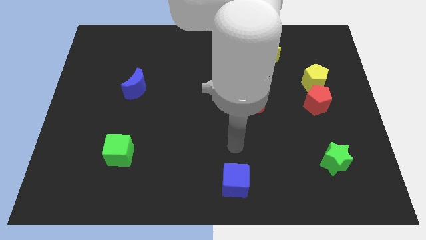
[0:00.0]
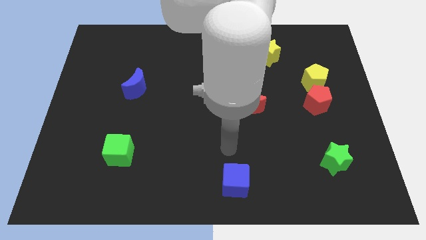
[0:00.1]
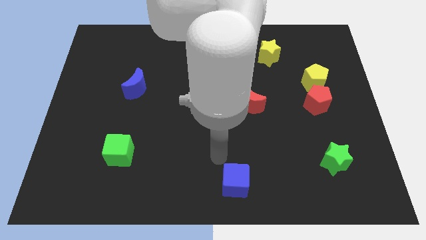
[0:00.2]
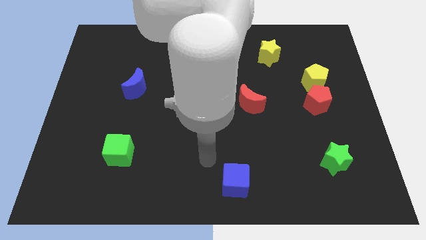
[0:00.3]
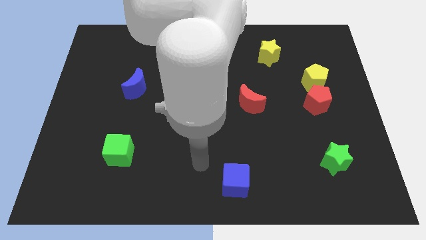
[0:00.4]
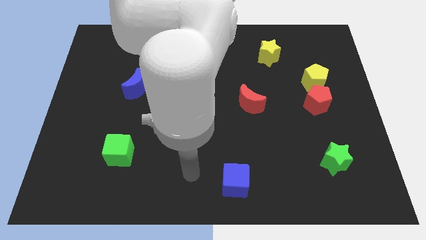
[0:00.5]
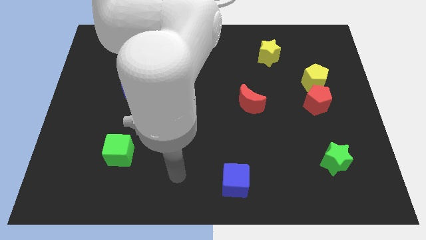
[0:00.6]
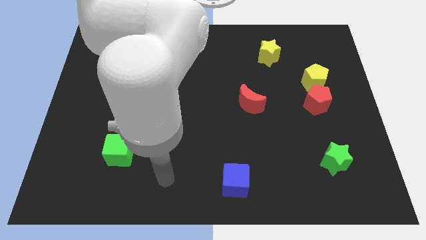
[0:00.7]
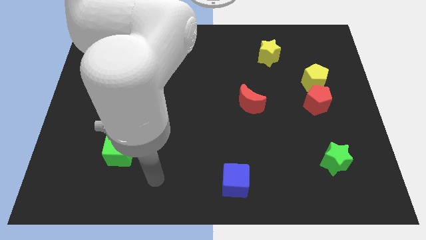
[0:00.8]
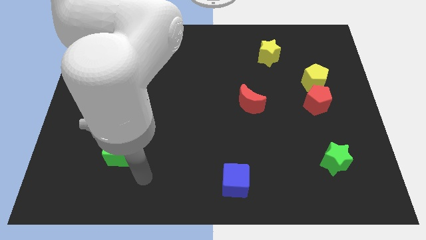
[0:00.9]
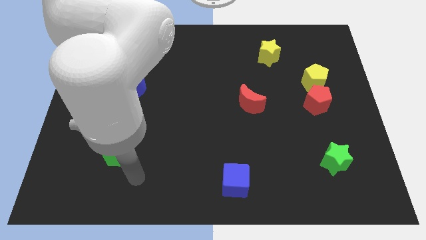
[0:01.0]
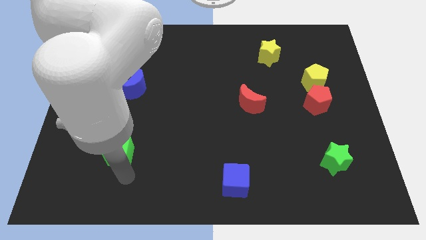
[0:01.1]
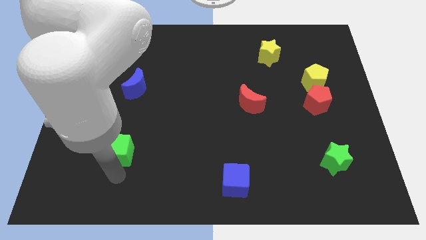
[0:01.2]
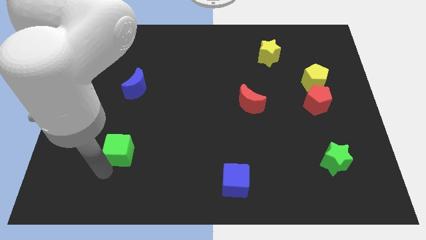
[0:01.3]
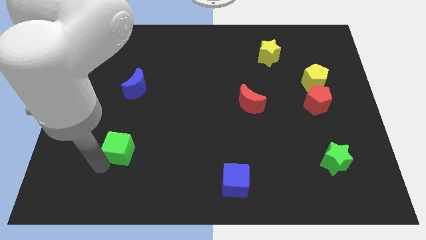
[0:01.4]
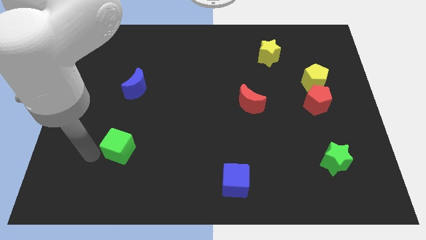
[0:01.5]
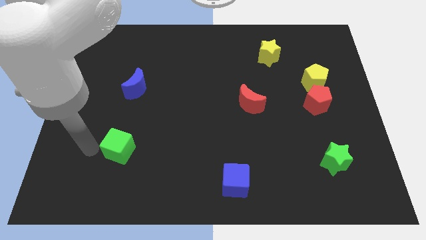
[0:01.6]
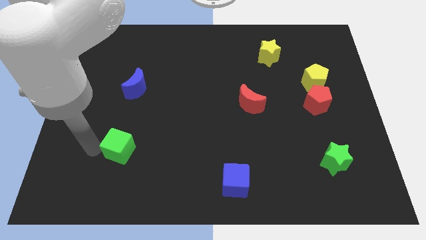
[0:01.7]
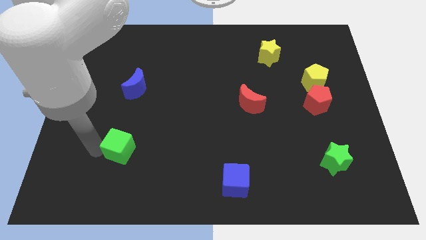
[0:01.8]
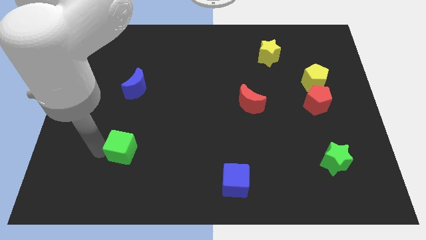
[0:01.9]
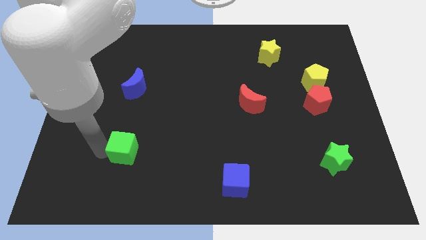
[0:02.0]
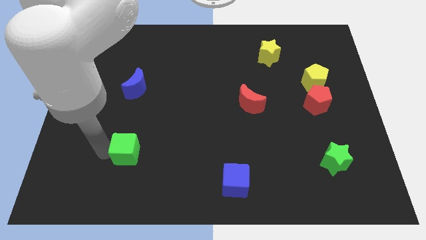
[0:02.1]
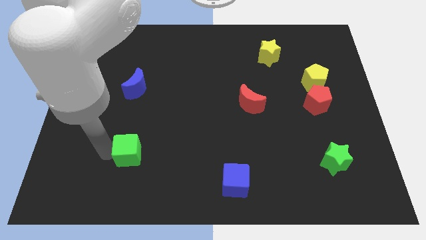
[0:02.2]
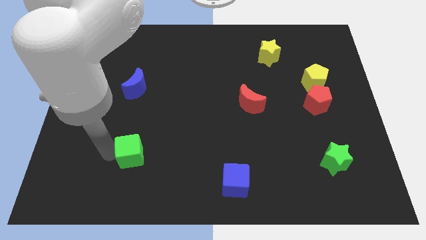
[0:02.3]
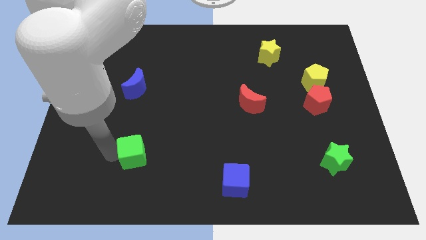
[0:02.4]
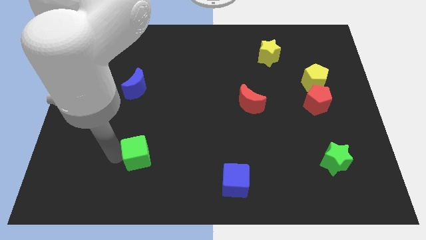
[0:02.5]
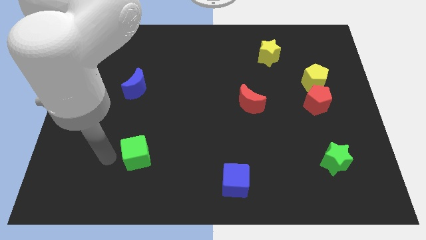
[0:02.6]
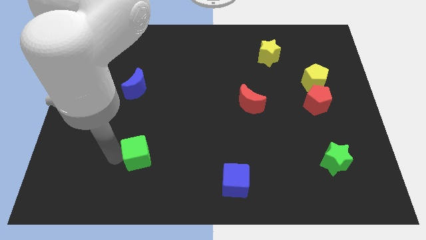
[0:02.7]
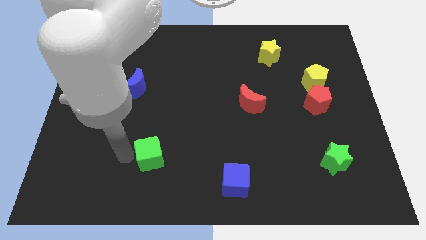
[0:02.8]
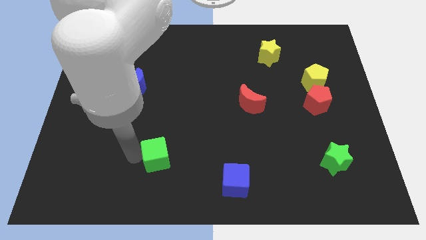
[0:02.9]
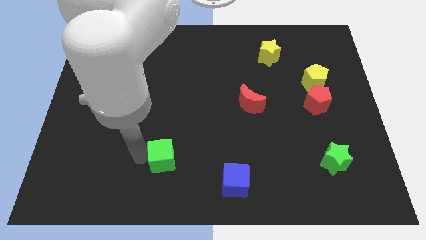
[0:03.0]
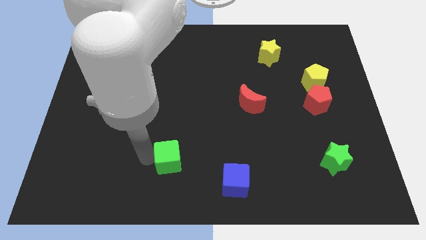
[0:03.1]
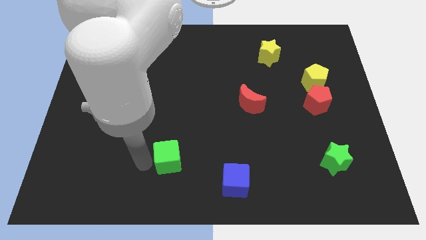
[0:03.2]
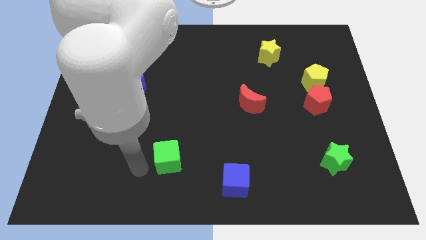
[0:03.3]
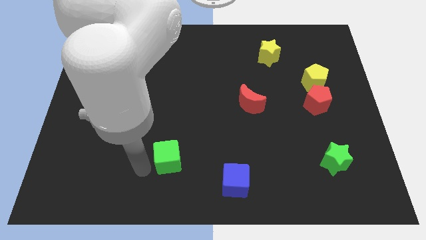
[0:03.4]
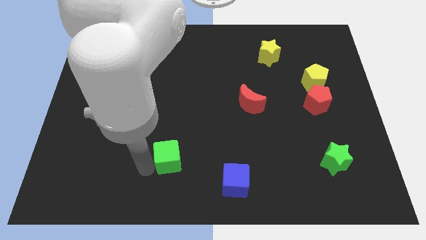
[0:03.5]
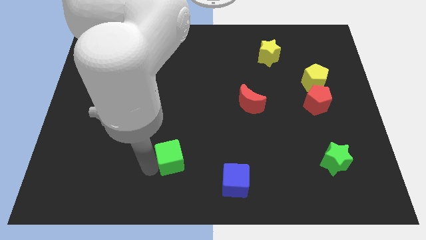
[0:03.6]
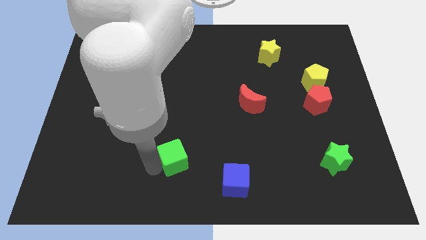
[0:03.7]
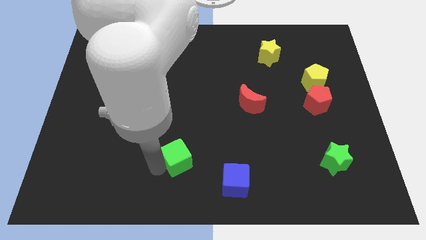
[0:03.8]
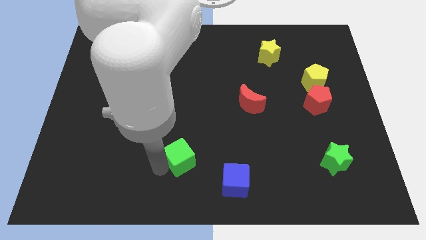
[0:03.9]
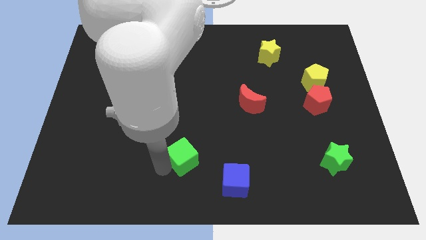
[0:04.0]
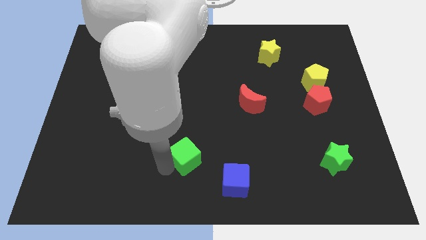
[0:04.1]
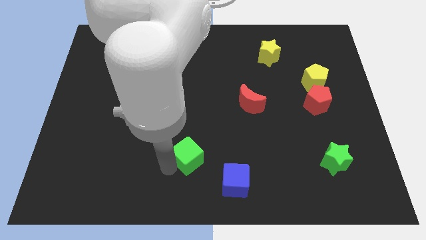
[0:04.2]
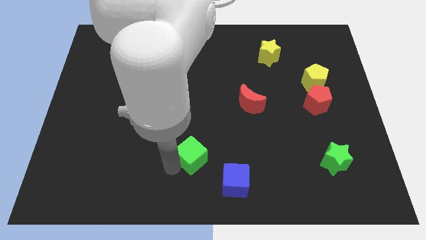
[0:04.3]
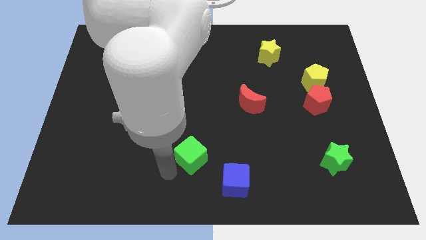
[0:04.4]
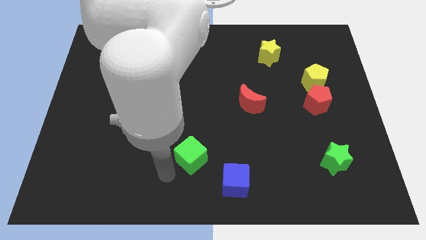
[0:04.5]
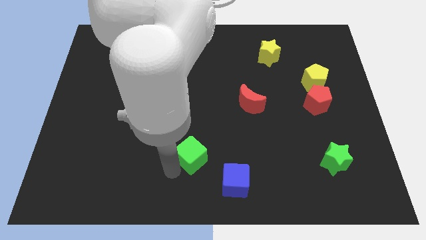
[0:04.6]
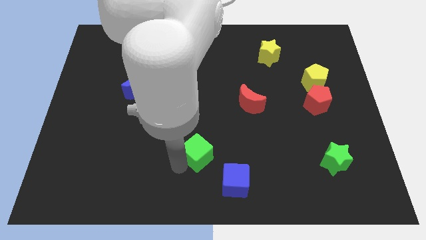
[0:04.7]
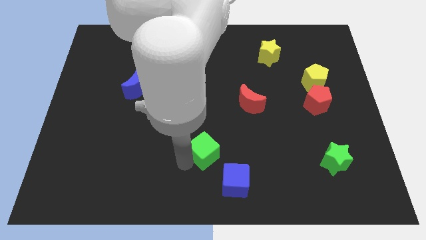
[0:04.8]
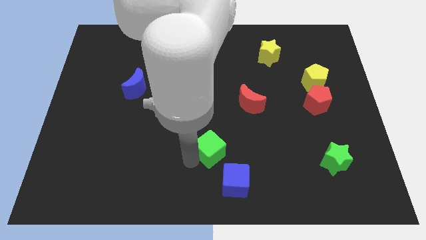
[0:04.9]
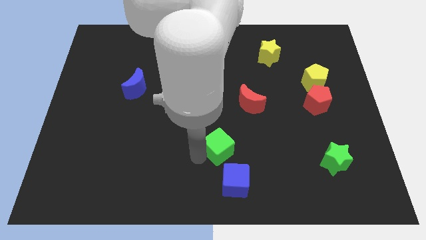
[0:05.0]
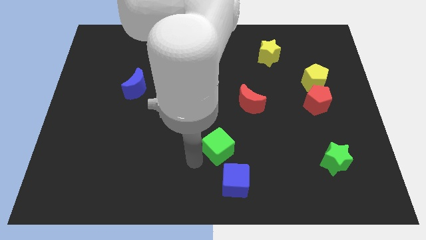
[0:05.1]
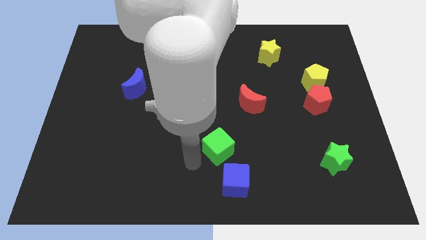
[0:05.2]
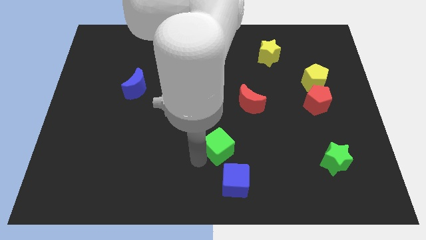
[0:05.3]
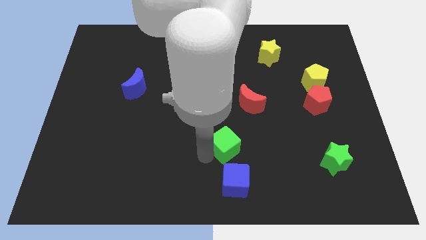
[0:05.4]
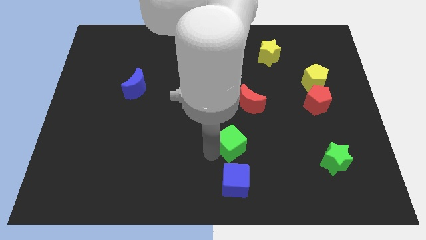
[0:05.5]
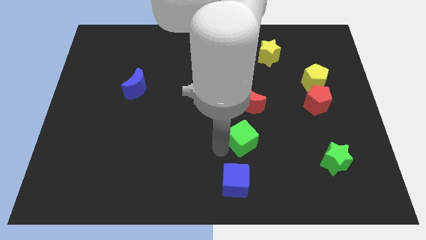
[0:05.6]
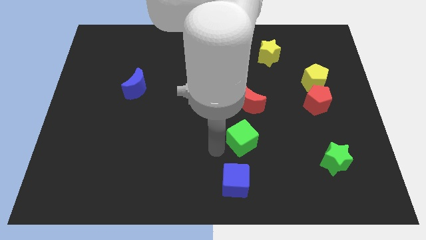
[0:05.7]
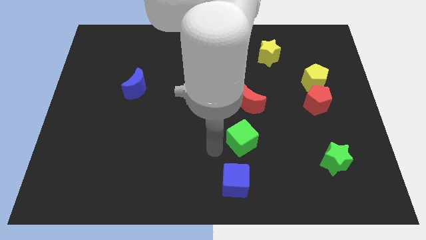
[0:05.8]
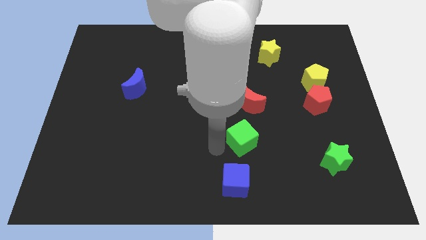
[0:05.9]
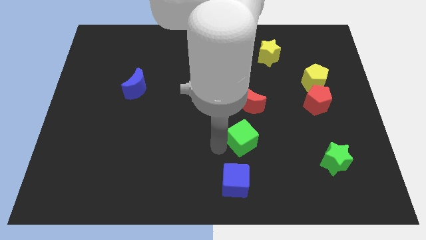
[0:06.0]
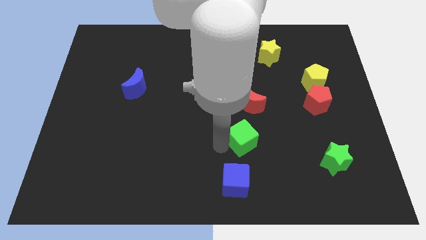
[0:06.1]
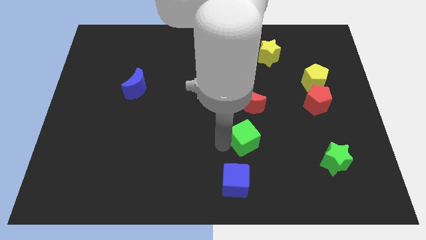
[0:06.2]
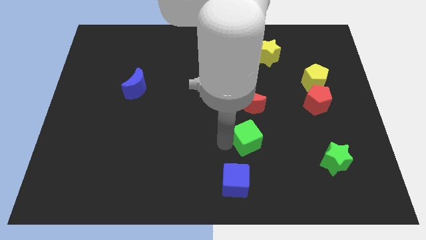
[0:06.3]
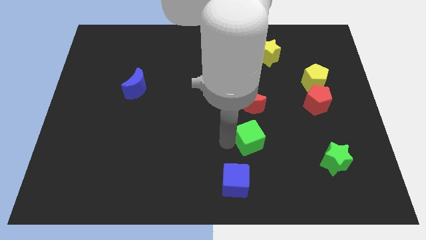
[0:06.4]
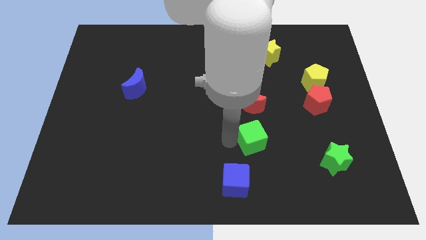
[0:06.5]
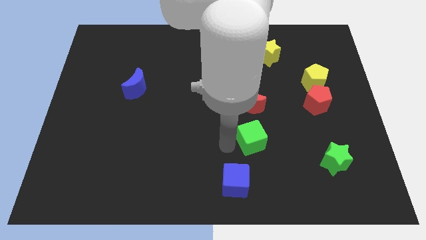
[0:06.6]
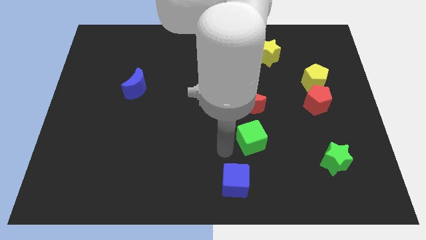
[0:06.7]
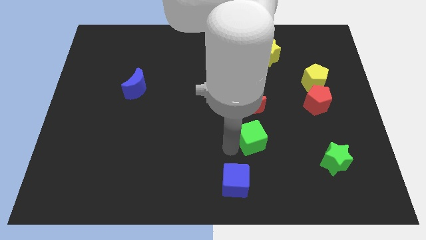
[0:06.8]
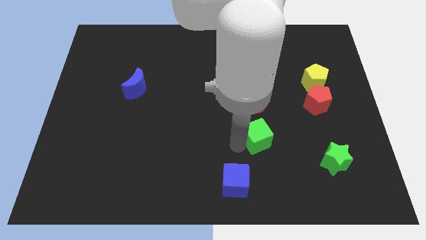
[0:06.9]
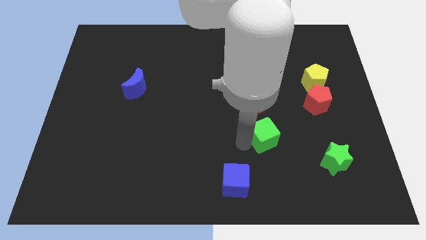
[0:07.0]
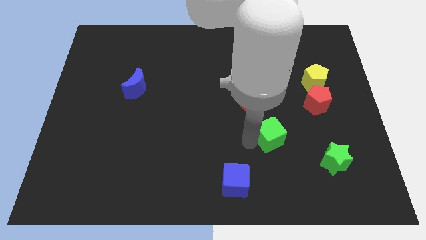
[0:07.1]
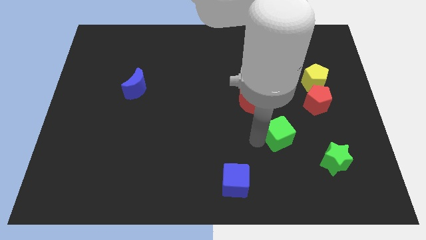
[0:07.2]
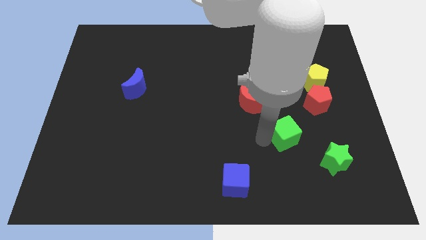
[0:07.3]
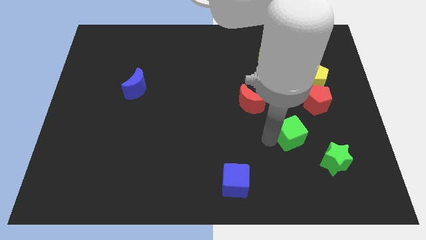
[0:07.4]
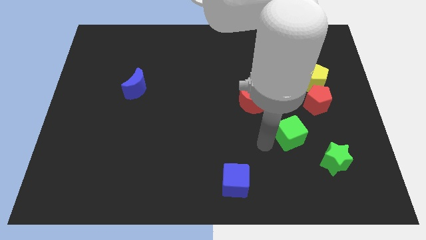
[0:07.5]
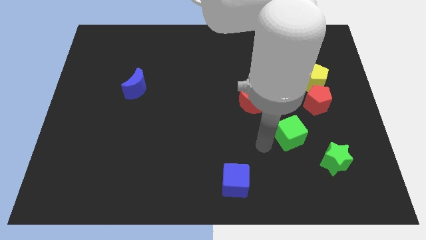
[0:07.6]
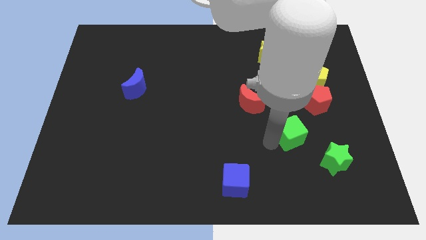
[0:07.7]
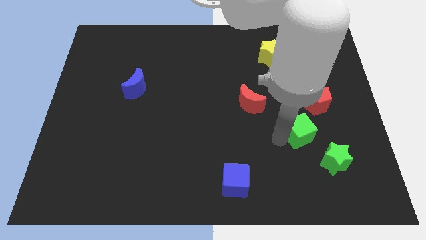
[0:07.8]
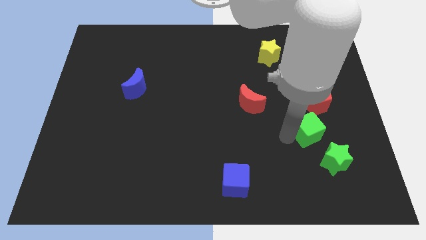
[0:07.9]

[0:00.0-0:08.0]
put the green cube to the top side of the green star
